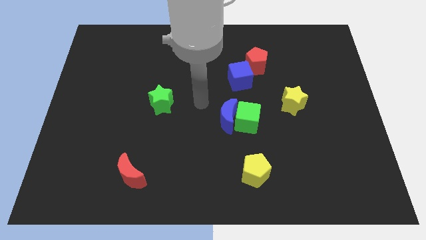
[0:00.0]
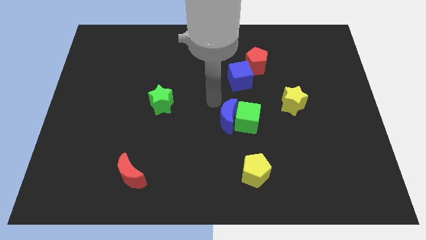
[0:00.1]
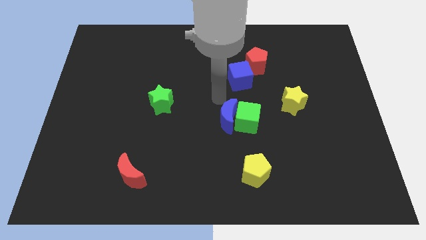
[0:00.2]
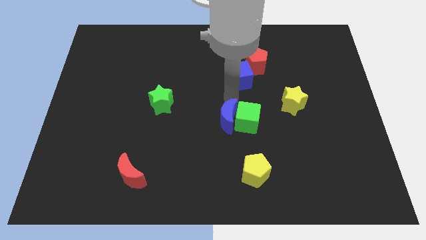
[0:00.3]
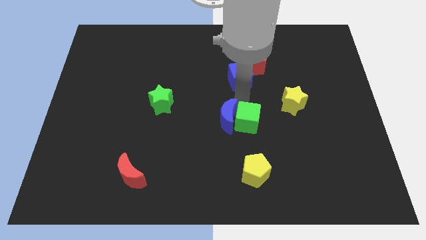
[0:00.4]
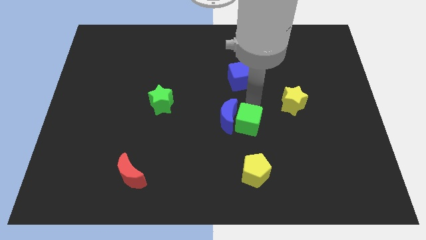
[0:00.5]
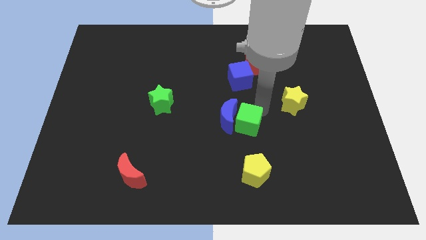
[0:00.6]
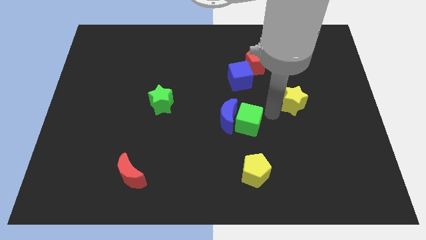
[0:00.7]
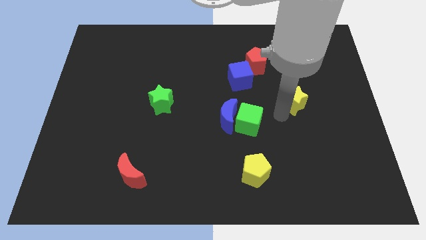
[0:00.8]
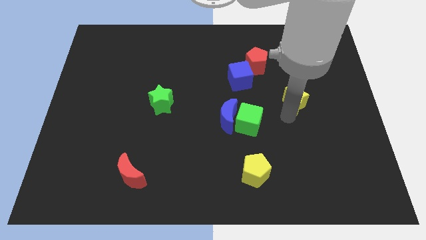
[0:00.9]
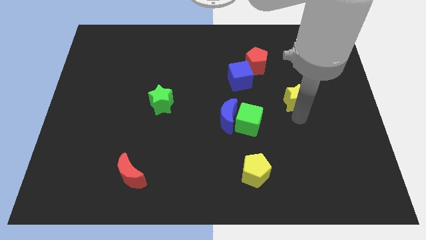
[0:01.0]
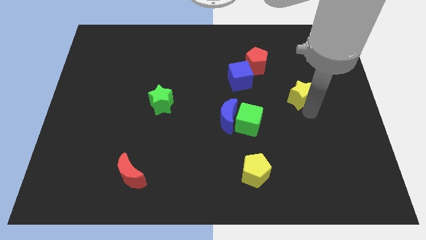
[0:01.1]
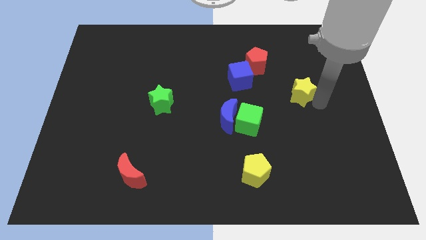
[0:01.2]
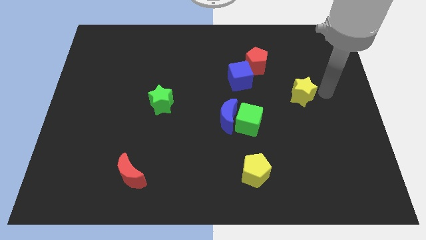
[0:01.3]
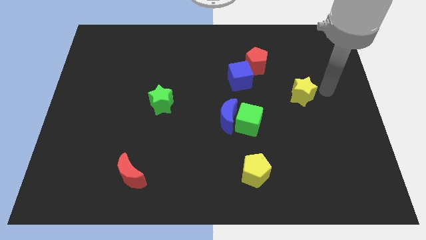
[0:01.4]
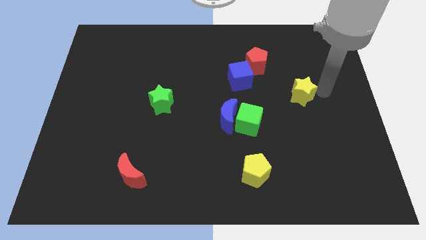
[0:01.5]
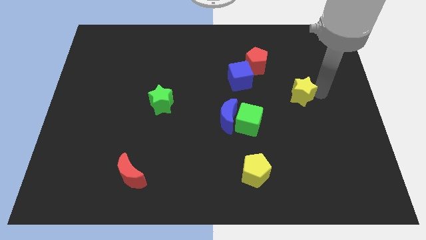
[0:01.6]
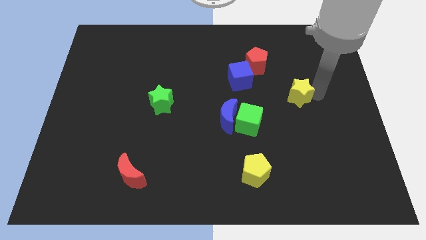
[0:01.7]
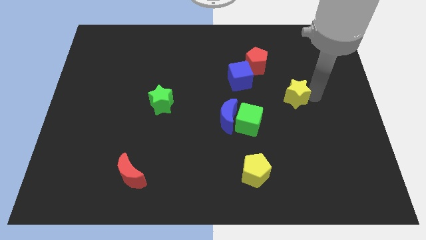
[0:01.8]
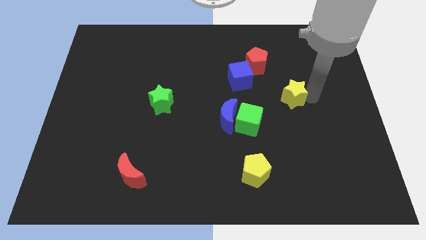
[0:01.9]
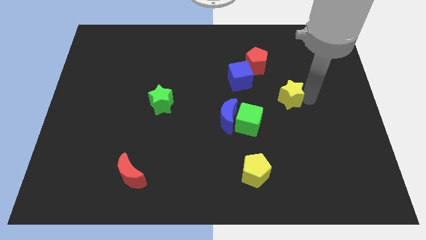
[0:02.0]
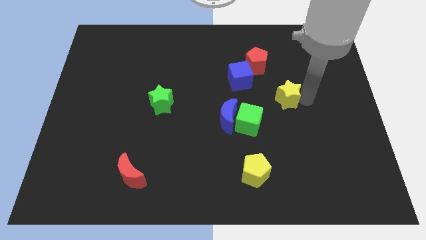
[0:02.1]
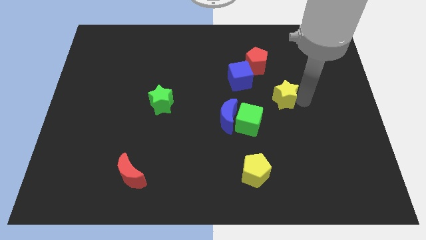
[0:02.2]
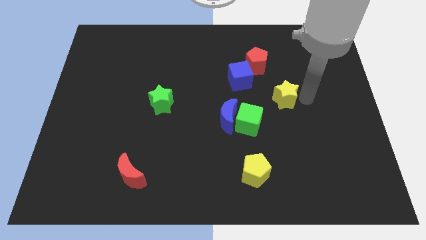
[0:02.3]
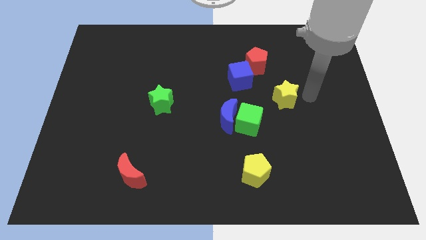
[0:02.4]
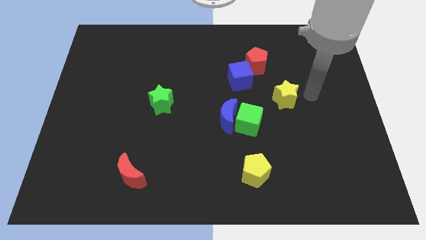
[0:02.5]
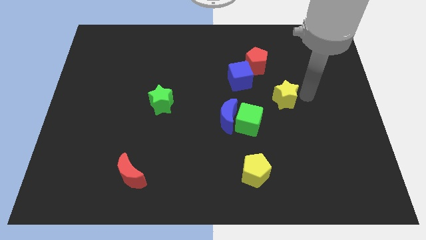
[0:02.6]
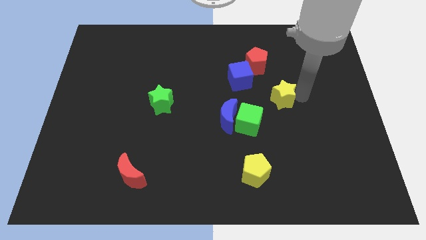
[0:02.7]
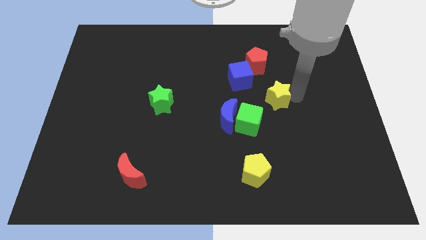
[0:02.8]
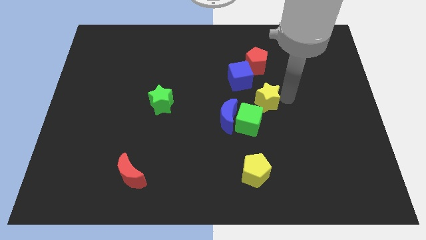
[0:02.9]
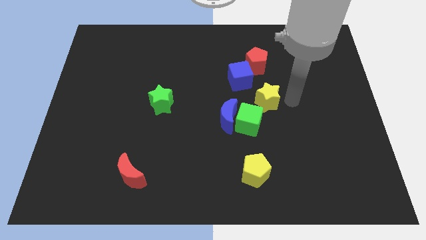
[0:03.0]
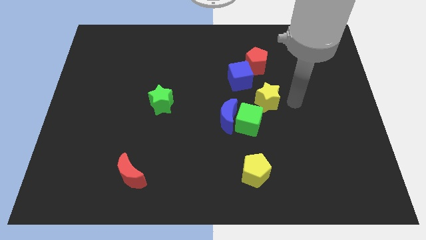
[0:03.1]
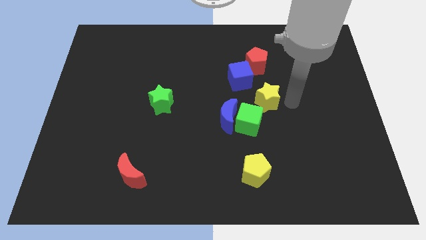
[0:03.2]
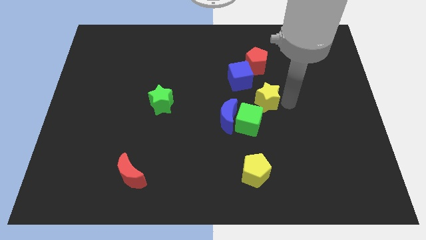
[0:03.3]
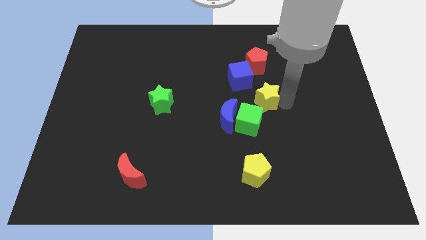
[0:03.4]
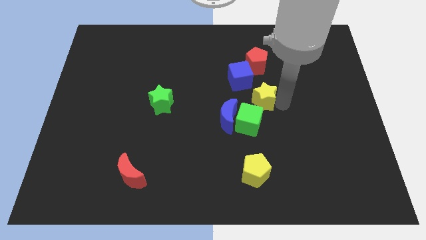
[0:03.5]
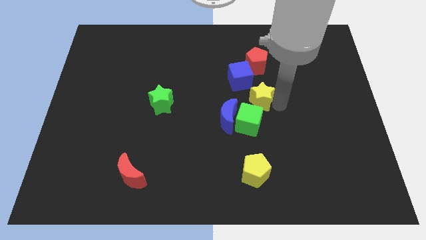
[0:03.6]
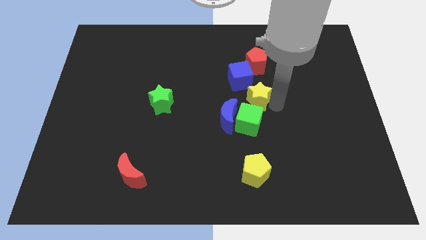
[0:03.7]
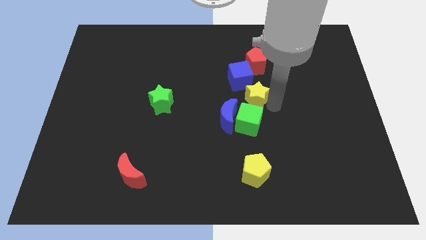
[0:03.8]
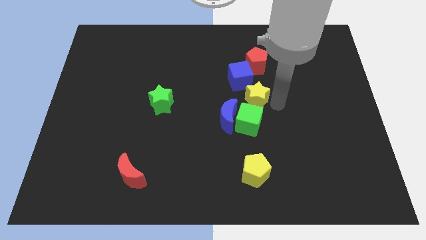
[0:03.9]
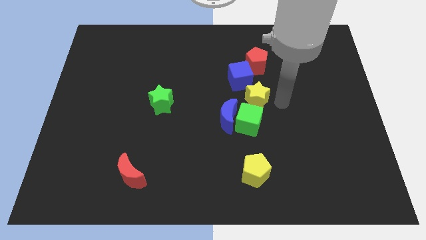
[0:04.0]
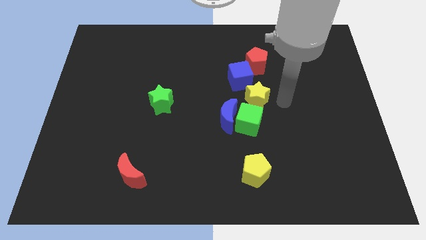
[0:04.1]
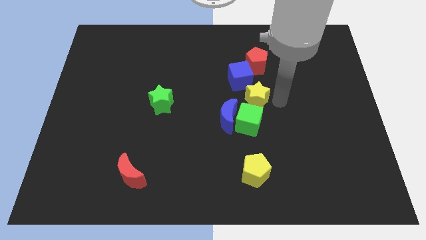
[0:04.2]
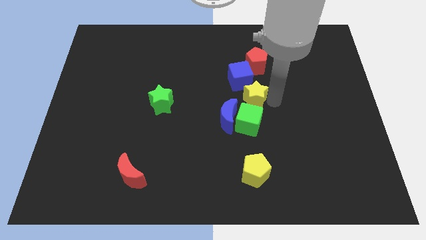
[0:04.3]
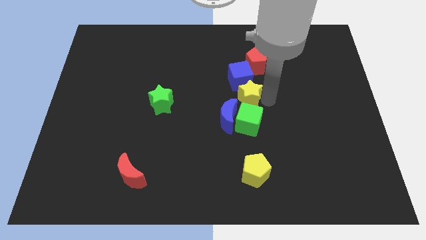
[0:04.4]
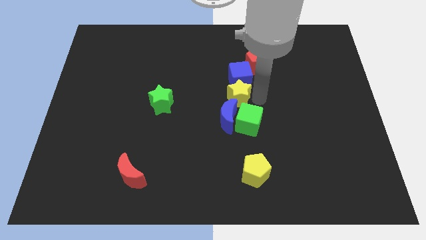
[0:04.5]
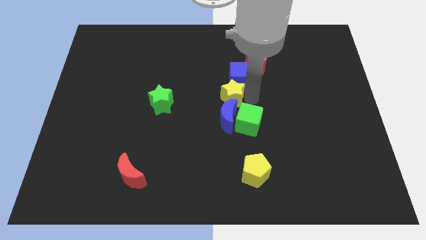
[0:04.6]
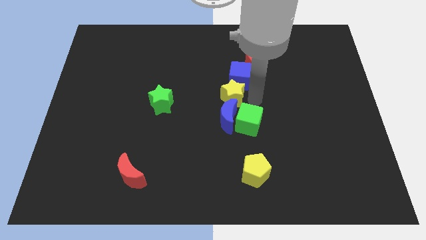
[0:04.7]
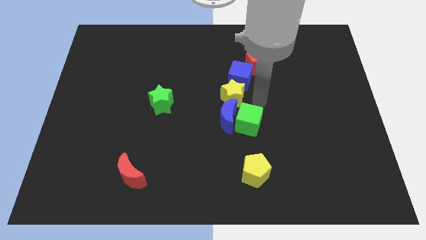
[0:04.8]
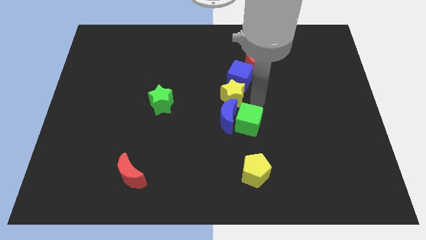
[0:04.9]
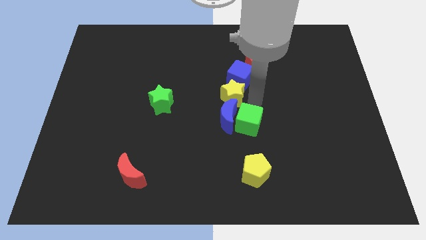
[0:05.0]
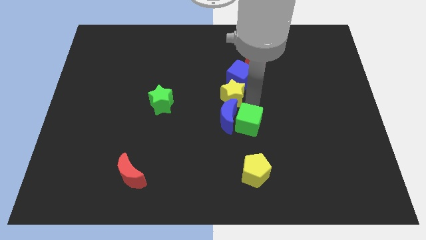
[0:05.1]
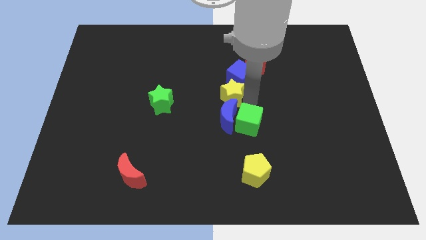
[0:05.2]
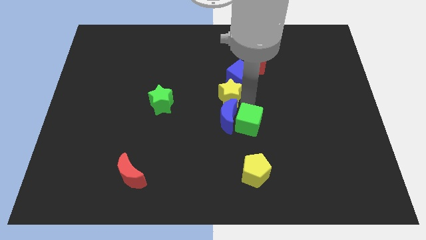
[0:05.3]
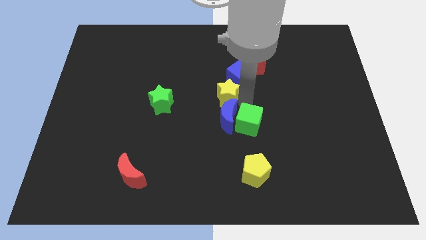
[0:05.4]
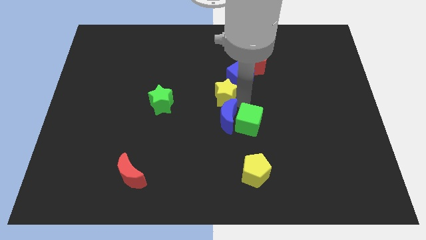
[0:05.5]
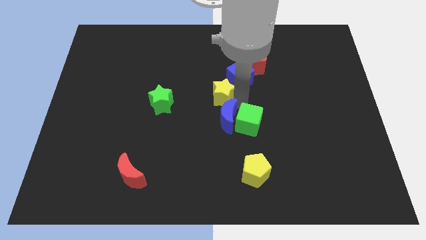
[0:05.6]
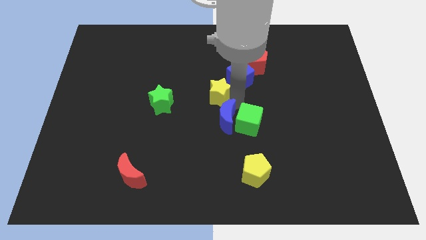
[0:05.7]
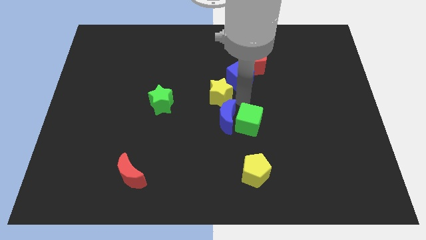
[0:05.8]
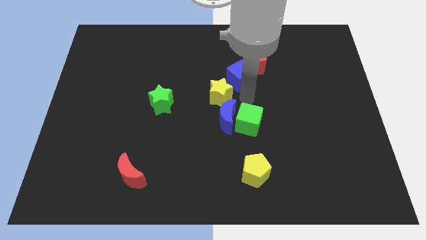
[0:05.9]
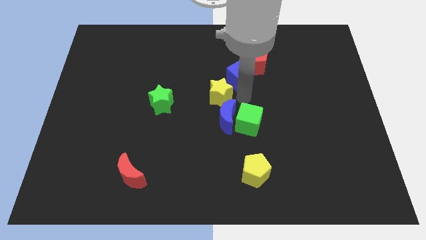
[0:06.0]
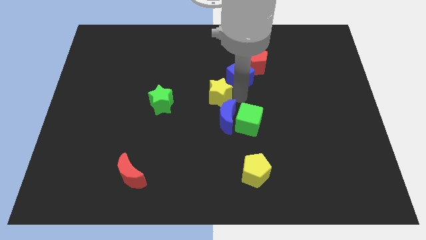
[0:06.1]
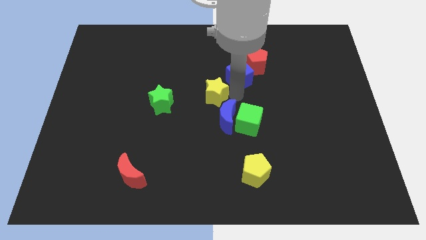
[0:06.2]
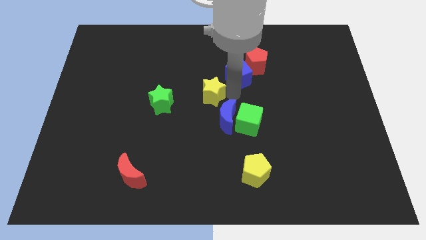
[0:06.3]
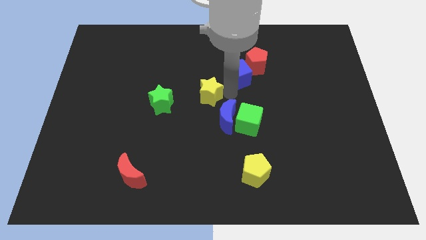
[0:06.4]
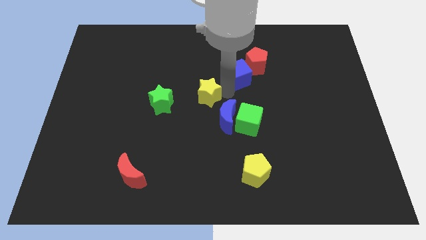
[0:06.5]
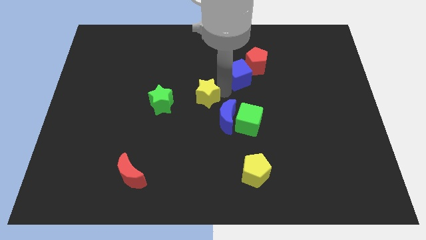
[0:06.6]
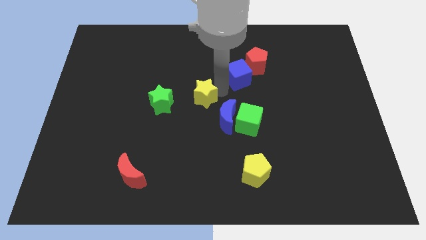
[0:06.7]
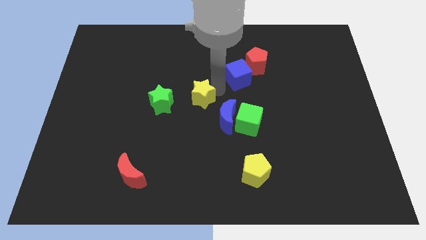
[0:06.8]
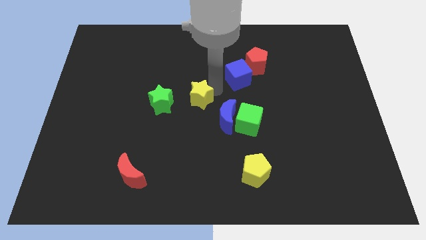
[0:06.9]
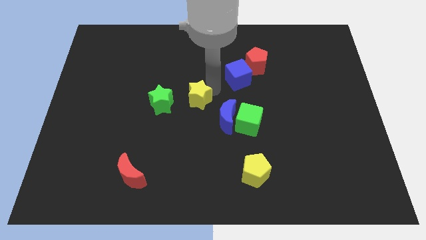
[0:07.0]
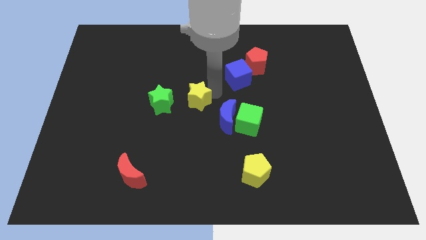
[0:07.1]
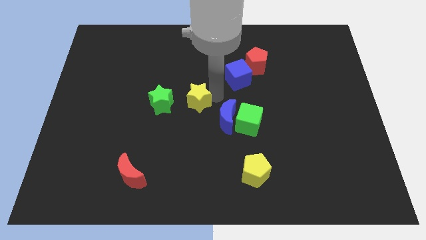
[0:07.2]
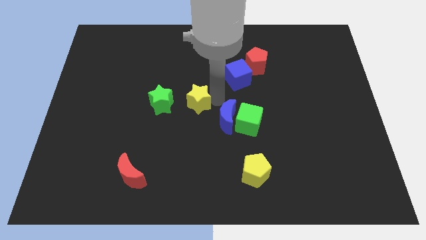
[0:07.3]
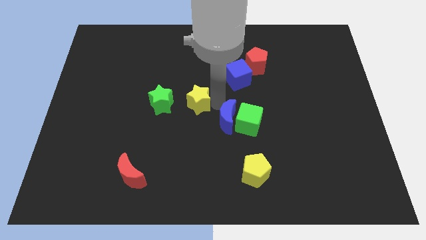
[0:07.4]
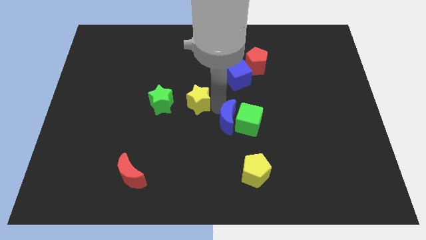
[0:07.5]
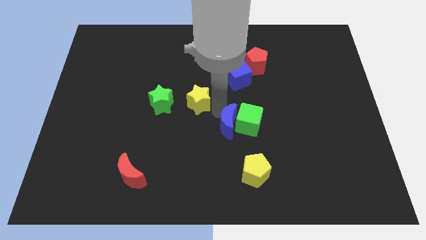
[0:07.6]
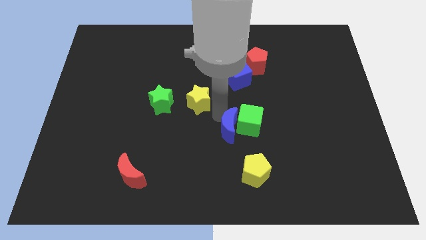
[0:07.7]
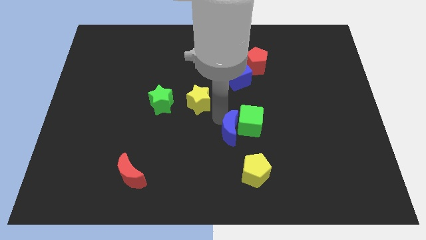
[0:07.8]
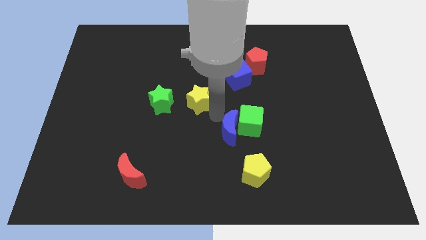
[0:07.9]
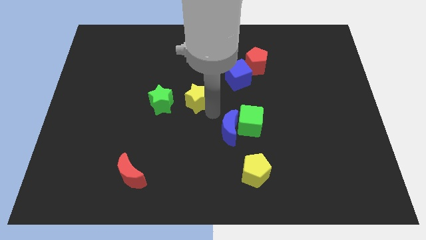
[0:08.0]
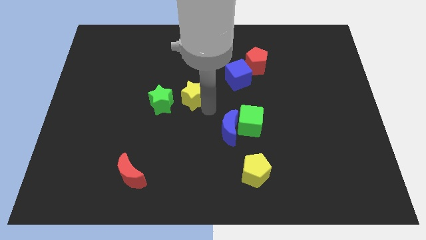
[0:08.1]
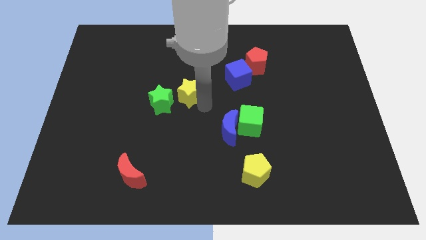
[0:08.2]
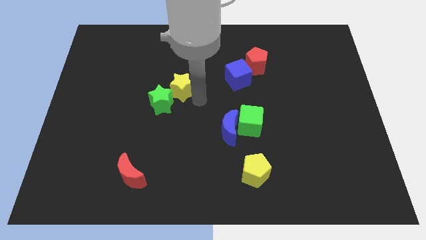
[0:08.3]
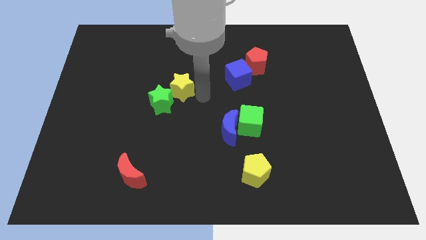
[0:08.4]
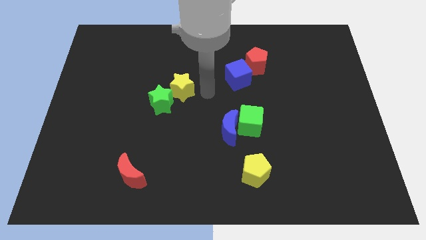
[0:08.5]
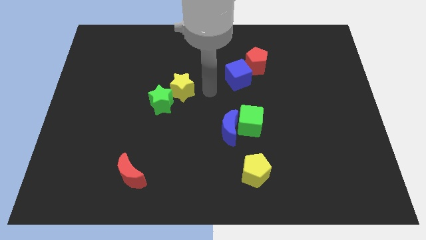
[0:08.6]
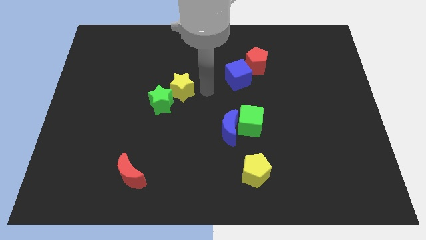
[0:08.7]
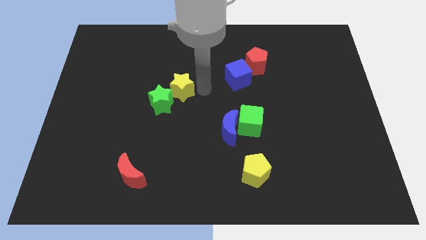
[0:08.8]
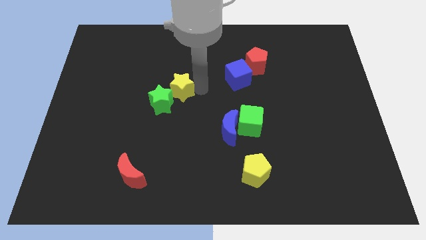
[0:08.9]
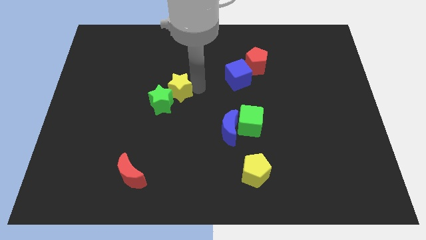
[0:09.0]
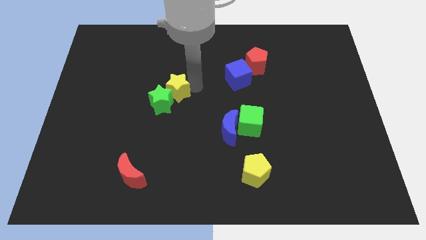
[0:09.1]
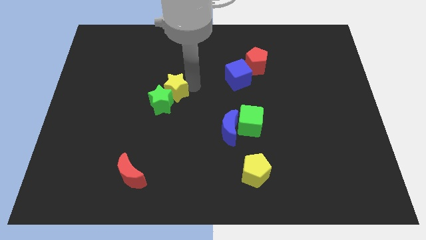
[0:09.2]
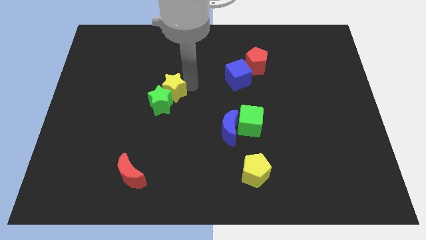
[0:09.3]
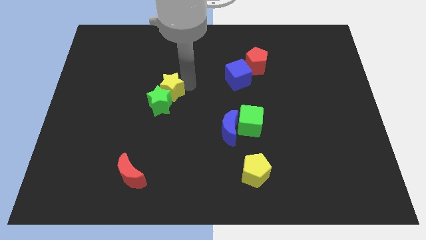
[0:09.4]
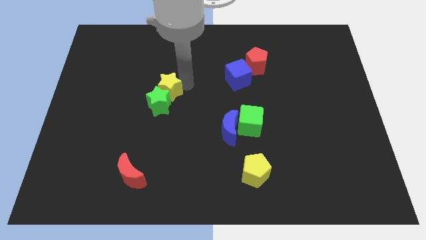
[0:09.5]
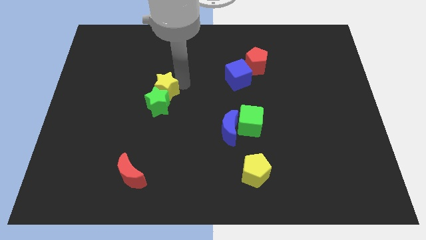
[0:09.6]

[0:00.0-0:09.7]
slide the yellow star to the top left of the green star
